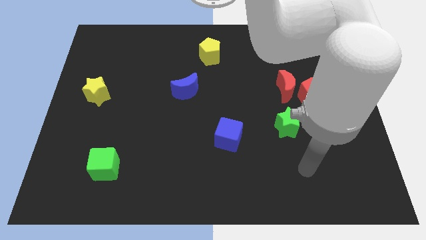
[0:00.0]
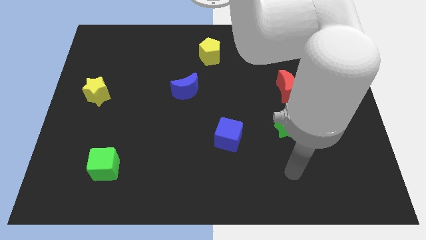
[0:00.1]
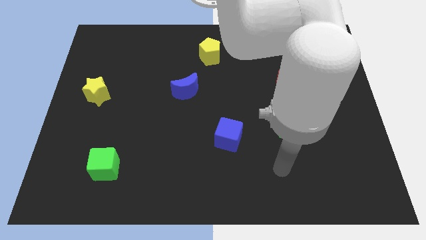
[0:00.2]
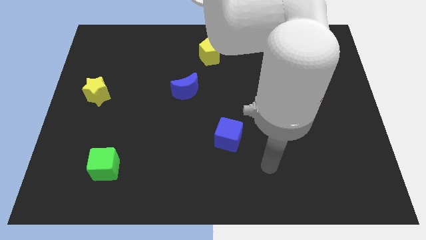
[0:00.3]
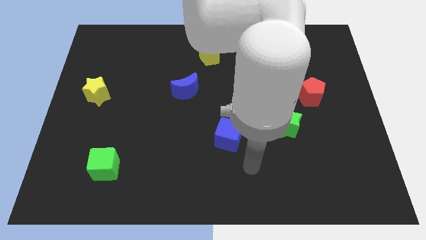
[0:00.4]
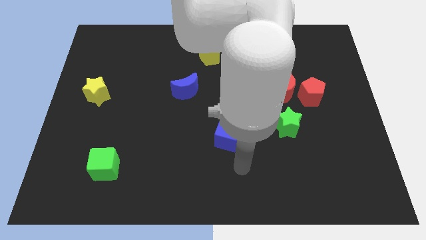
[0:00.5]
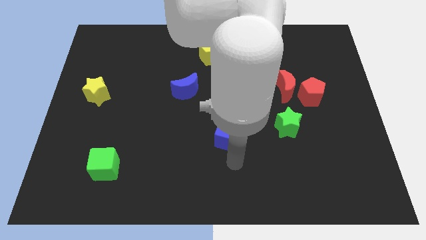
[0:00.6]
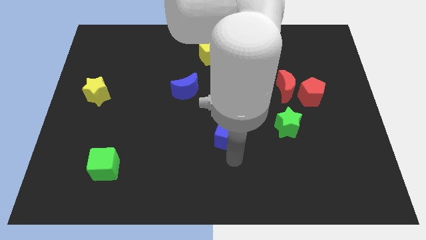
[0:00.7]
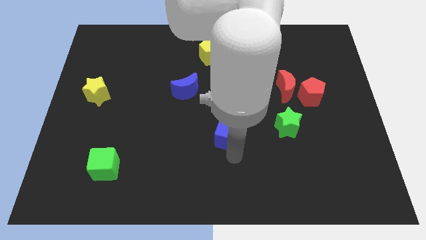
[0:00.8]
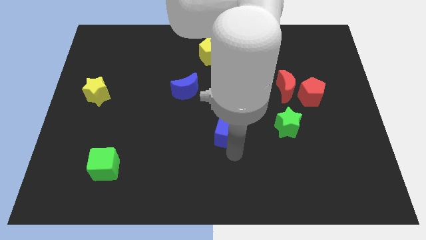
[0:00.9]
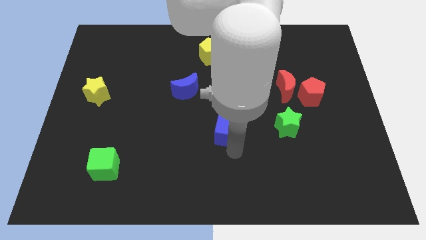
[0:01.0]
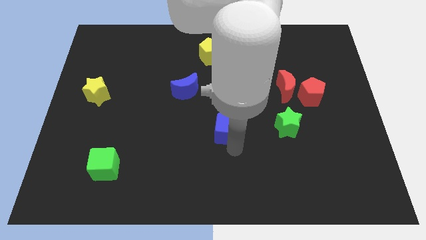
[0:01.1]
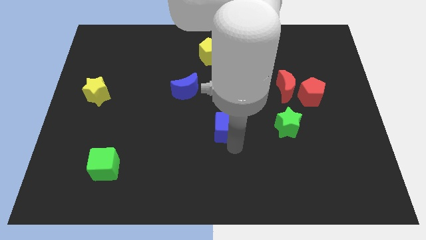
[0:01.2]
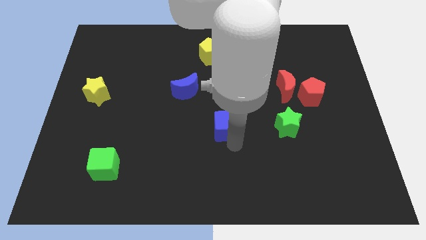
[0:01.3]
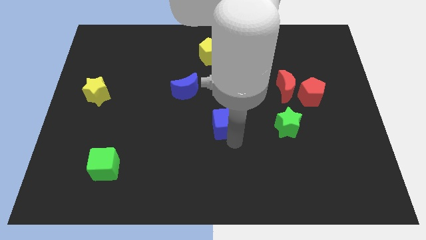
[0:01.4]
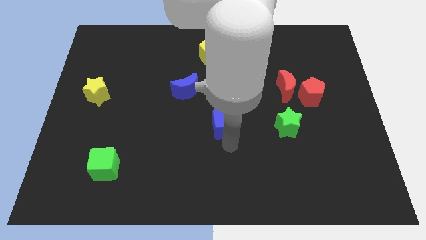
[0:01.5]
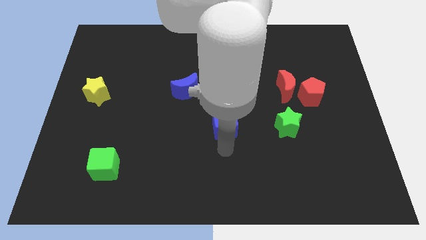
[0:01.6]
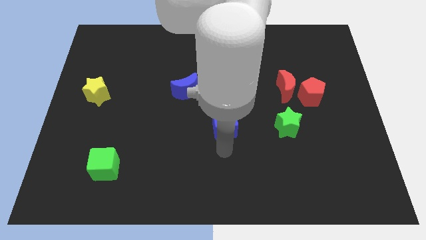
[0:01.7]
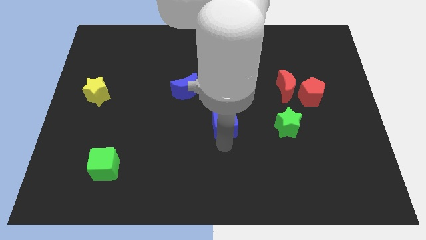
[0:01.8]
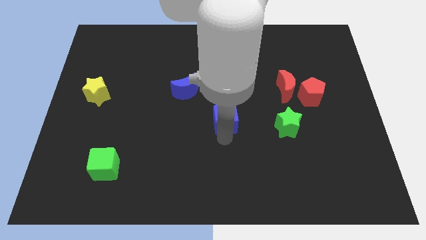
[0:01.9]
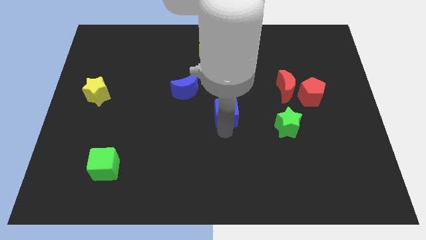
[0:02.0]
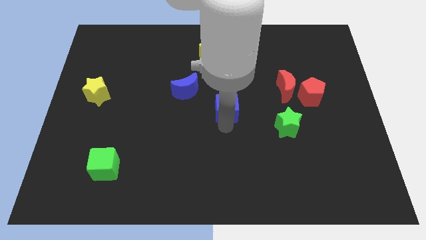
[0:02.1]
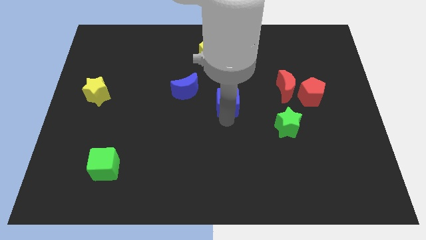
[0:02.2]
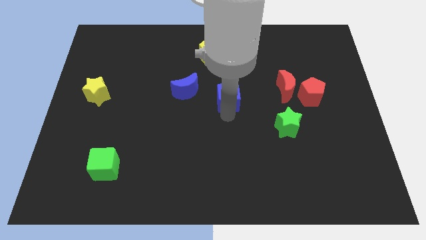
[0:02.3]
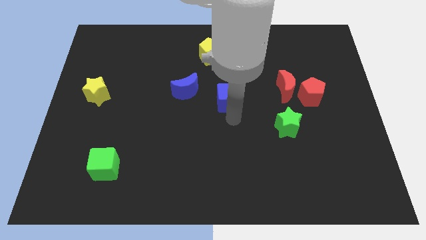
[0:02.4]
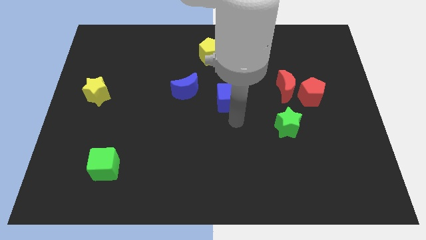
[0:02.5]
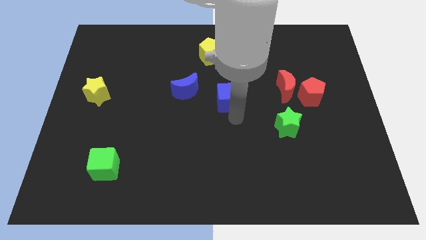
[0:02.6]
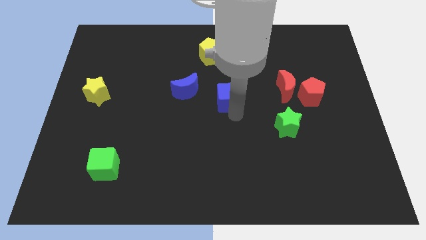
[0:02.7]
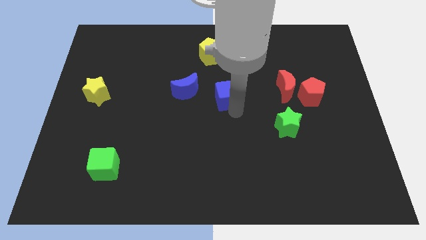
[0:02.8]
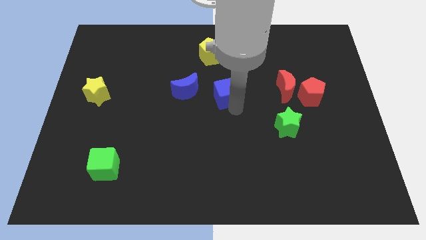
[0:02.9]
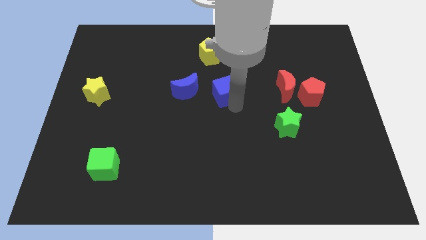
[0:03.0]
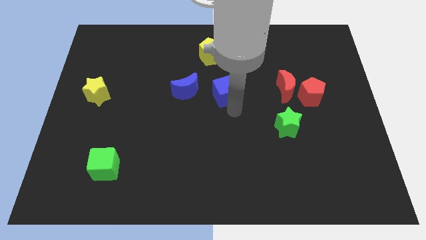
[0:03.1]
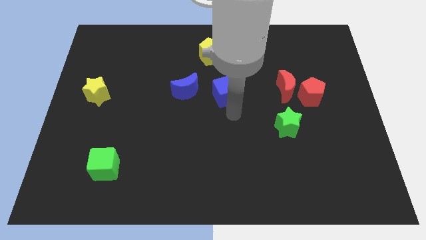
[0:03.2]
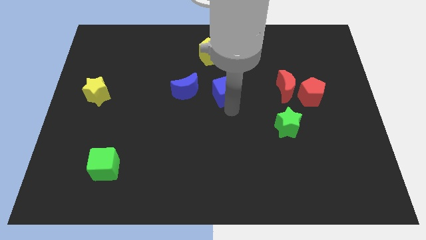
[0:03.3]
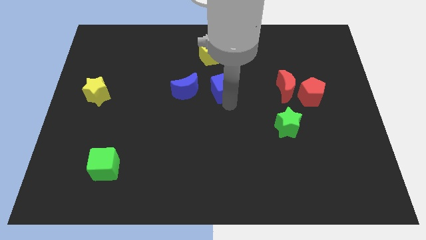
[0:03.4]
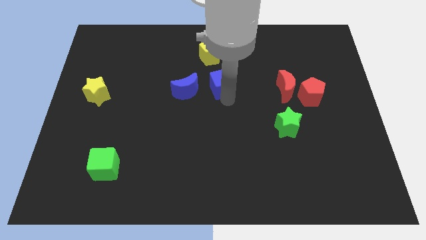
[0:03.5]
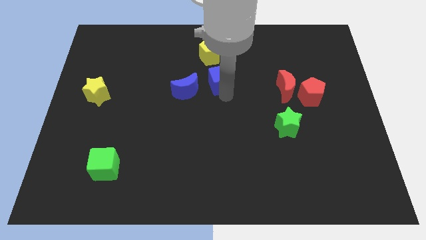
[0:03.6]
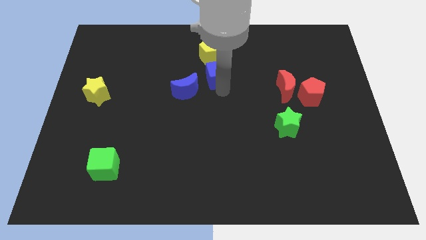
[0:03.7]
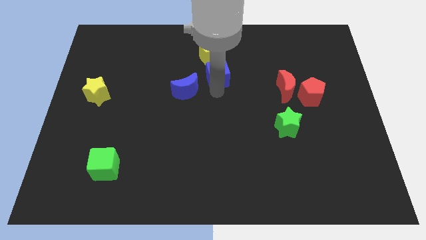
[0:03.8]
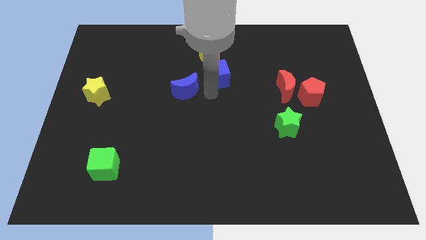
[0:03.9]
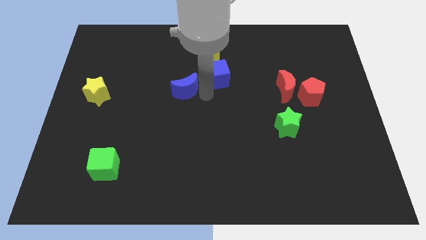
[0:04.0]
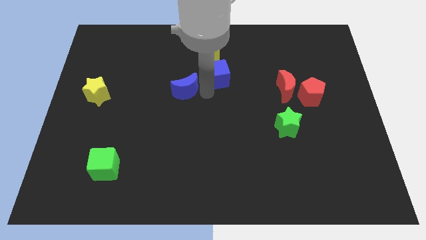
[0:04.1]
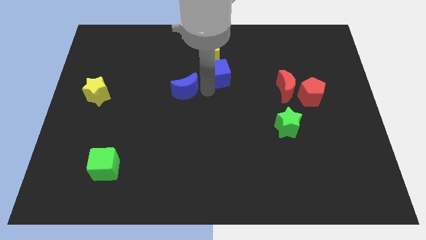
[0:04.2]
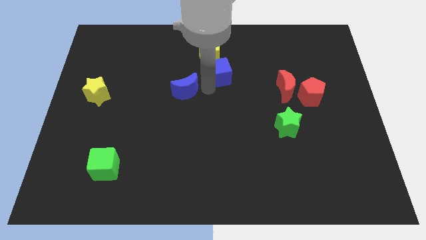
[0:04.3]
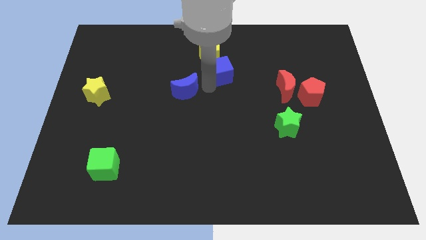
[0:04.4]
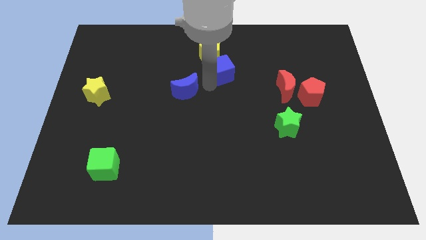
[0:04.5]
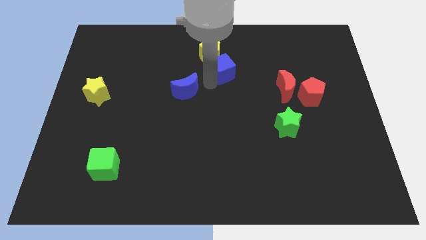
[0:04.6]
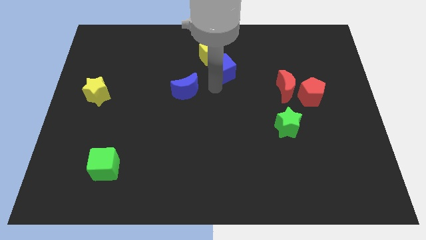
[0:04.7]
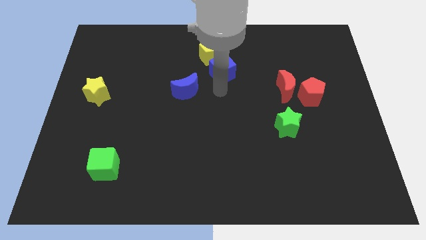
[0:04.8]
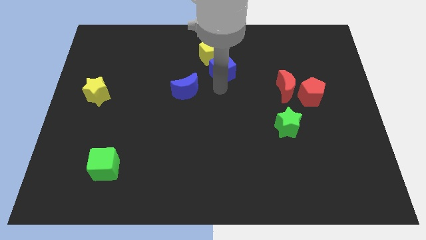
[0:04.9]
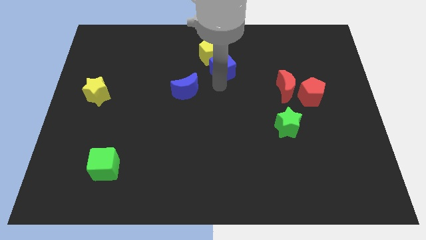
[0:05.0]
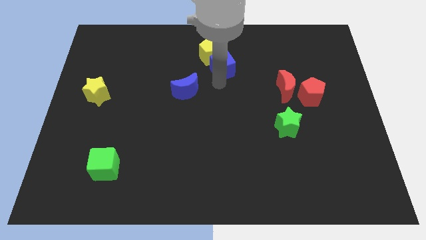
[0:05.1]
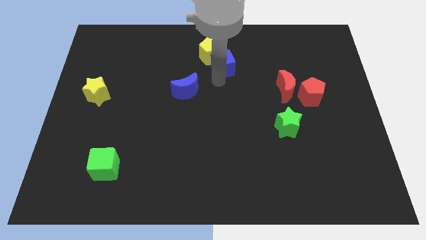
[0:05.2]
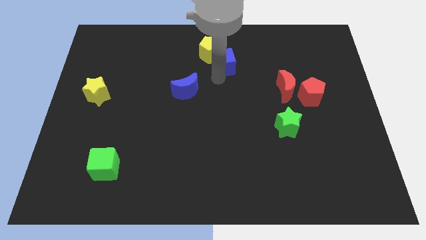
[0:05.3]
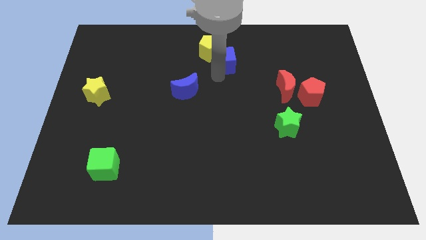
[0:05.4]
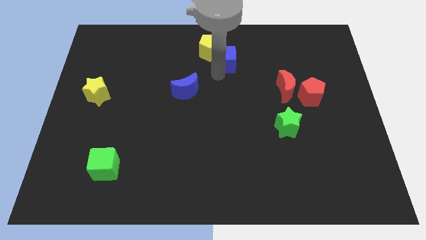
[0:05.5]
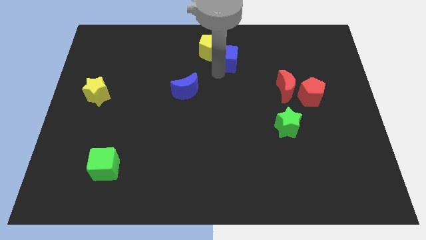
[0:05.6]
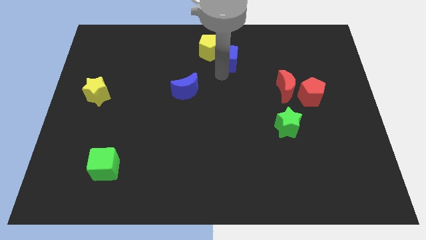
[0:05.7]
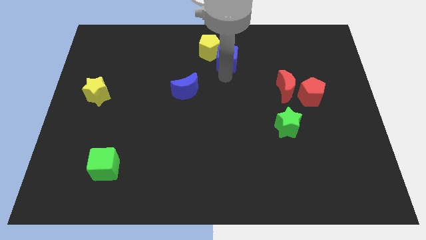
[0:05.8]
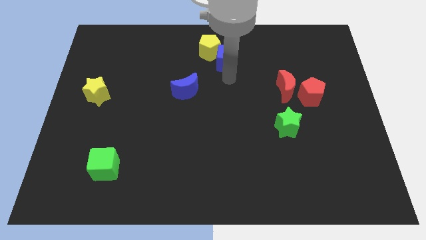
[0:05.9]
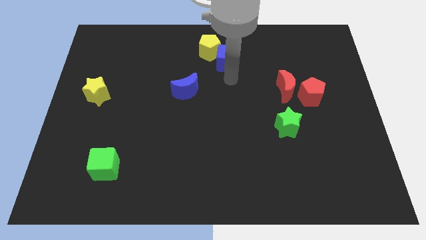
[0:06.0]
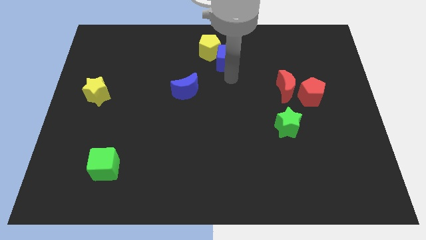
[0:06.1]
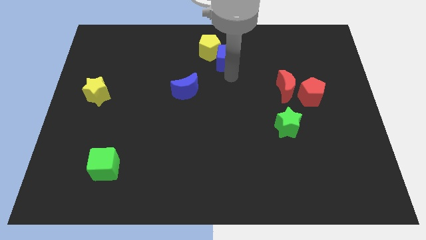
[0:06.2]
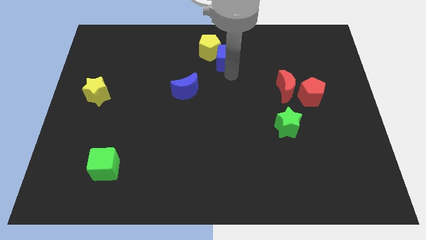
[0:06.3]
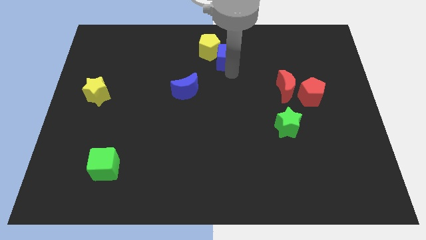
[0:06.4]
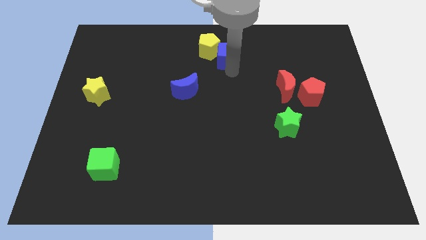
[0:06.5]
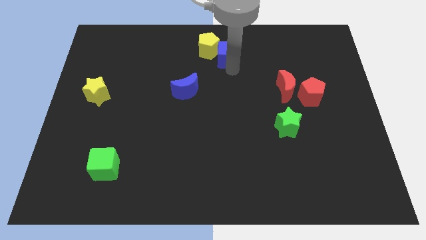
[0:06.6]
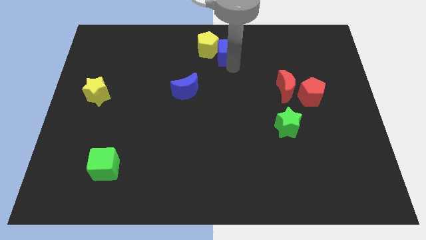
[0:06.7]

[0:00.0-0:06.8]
push the blue cube to the towards your base
